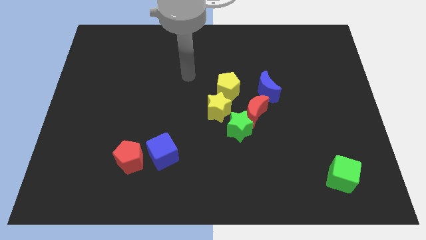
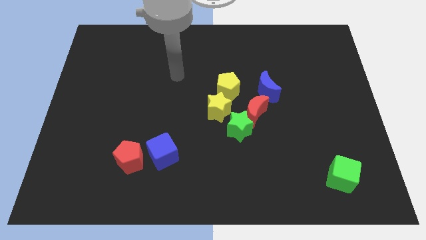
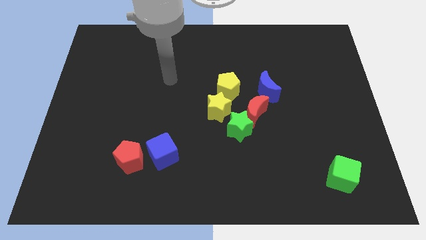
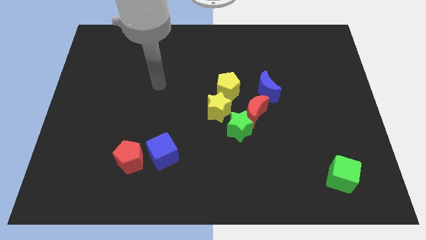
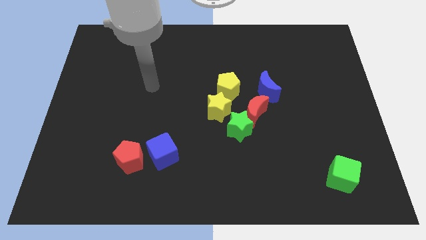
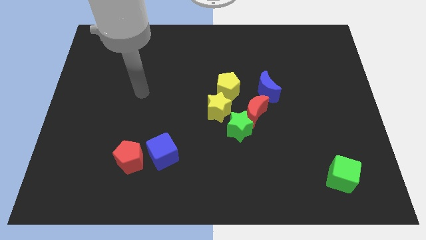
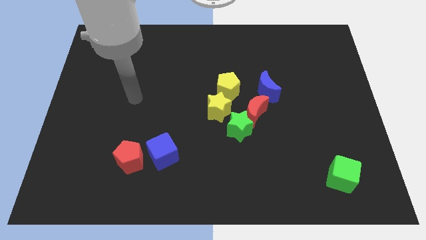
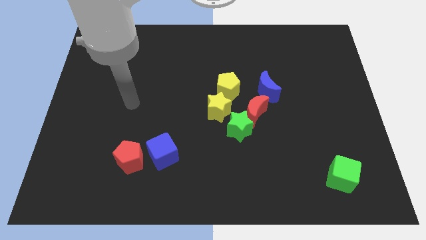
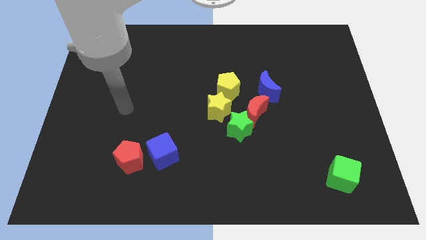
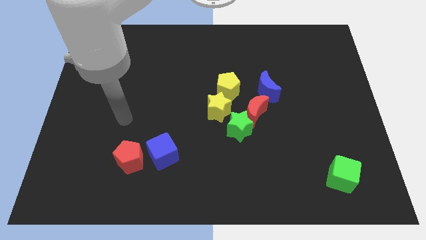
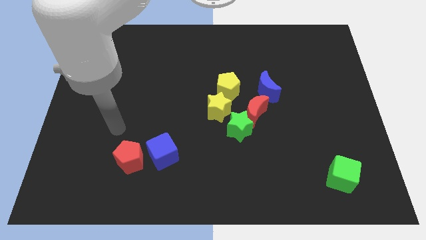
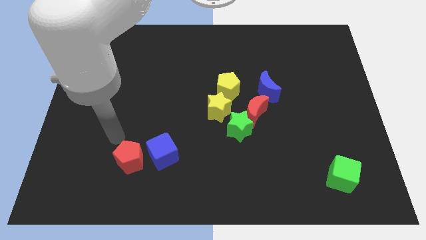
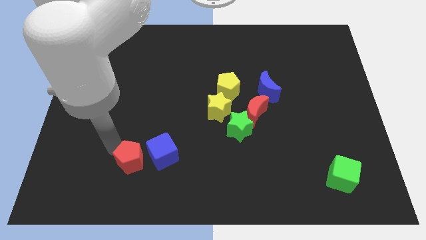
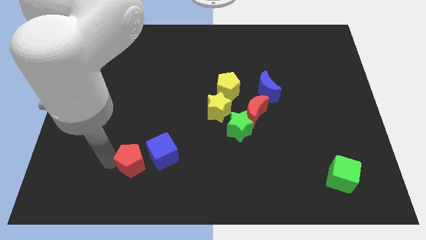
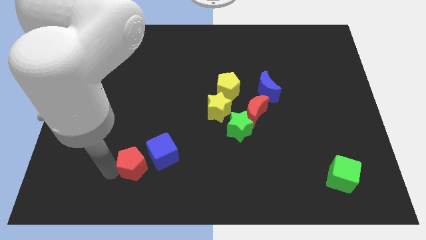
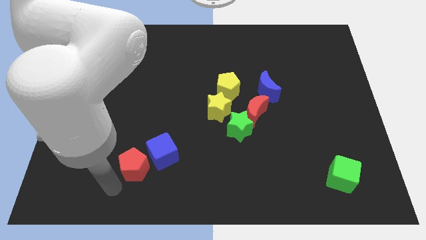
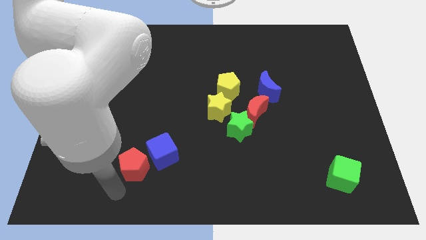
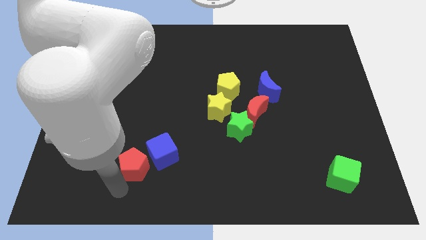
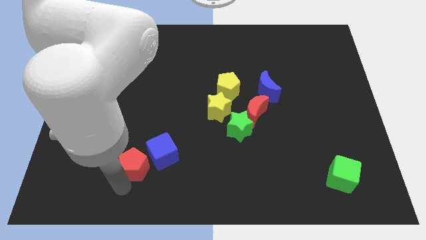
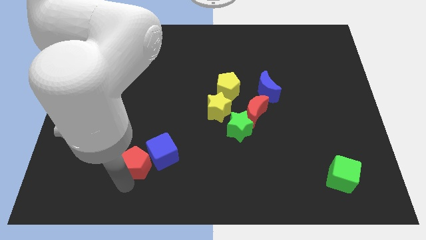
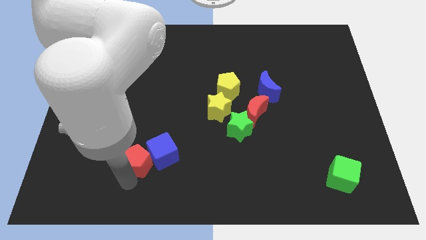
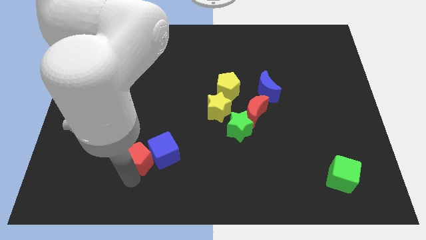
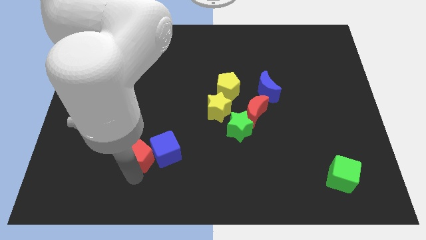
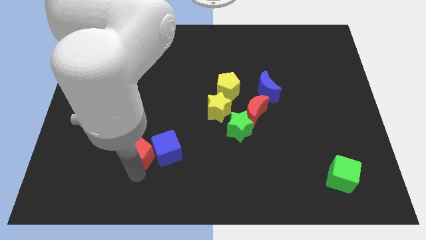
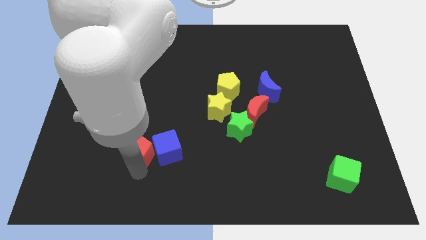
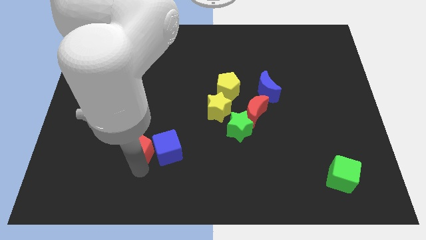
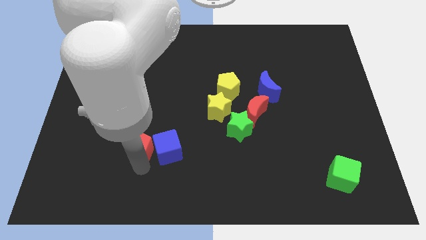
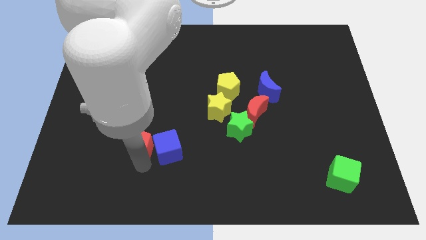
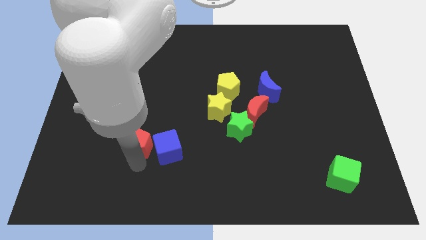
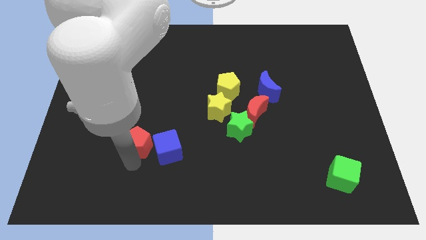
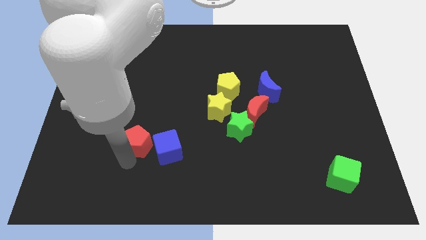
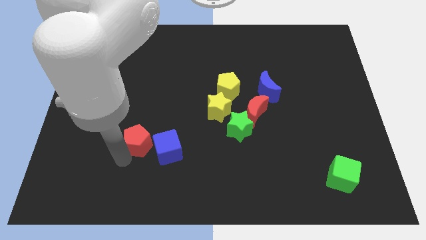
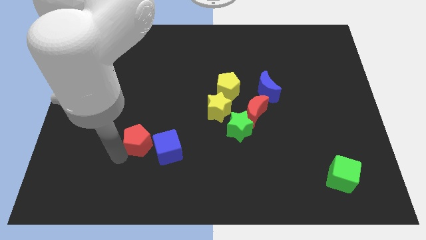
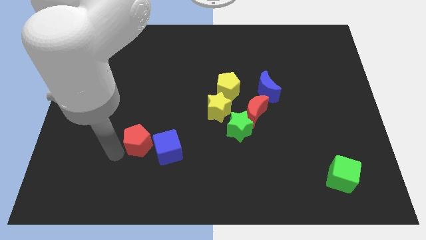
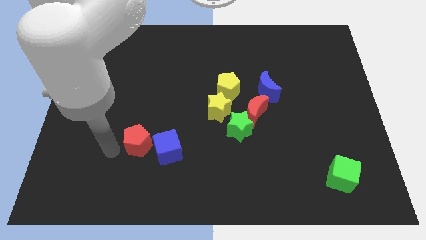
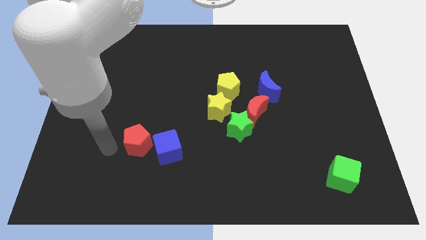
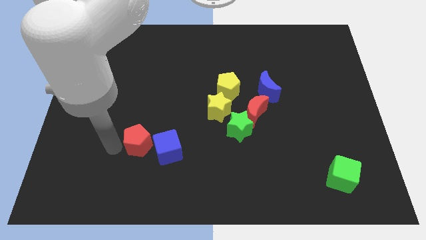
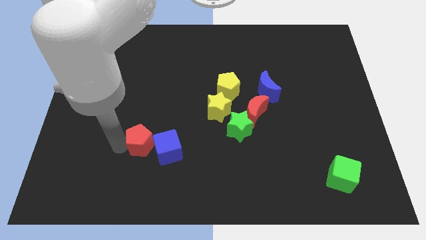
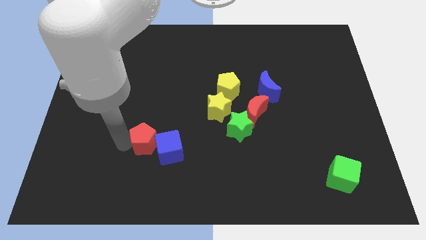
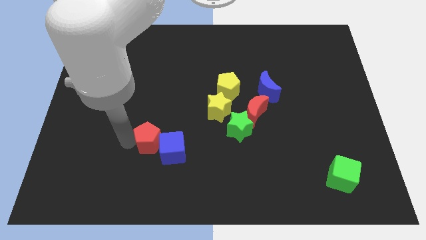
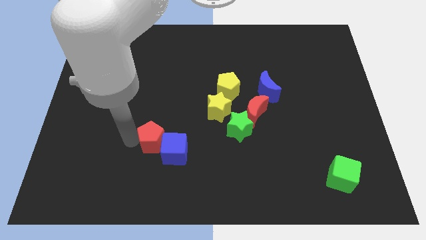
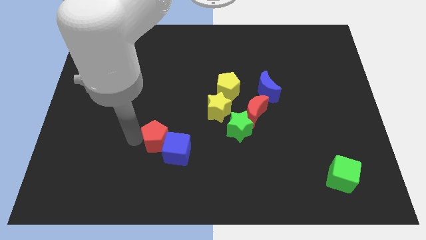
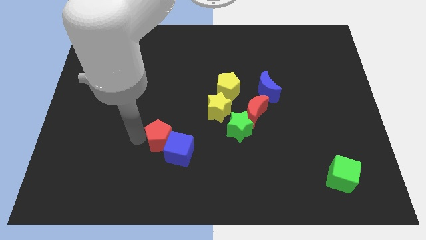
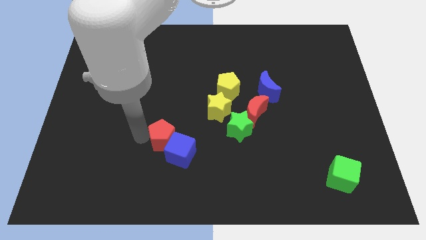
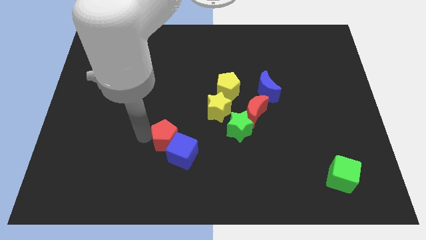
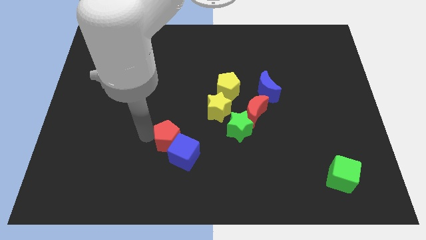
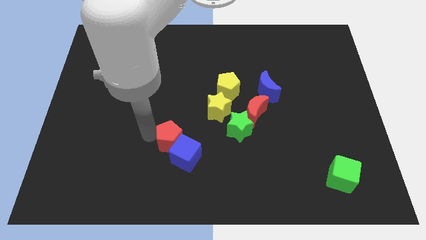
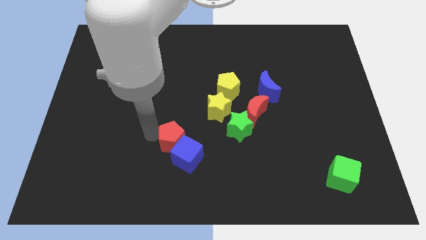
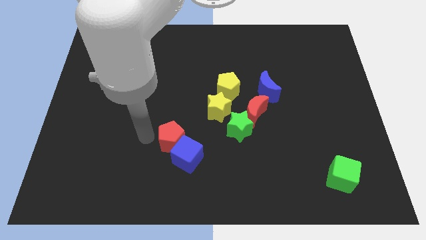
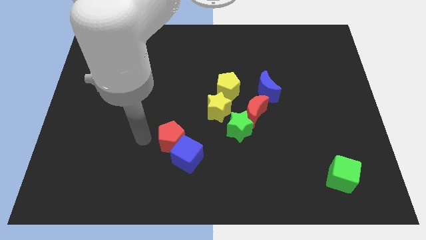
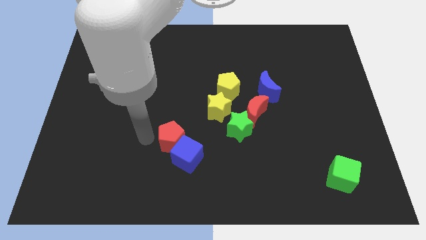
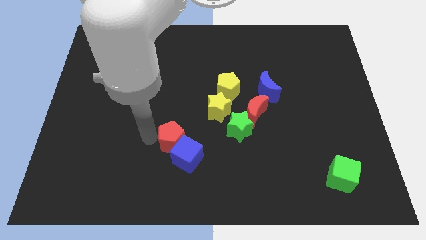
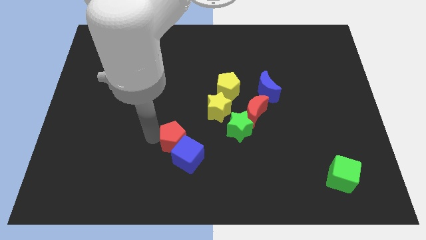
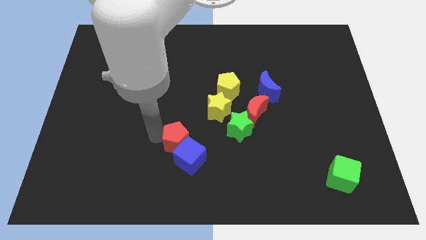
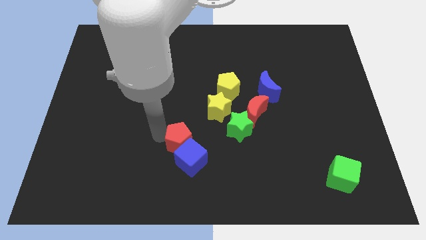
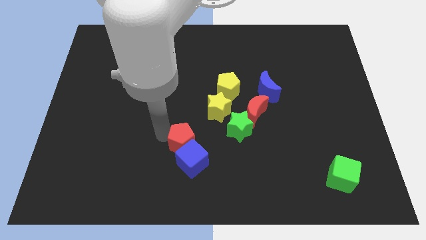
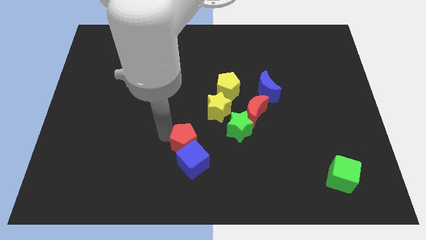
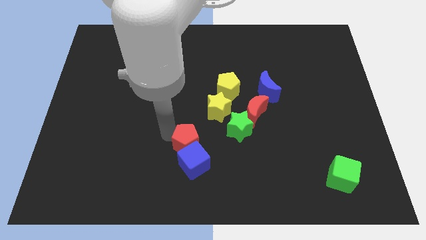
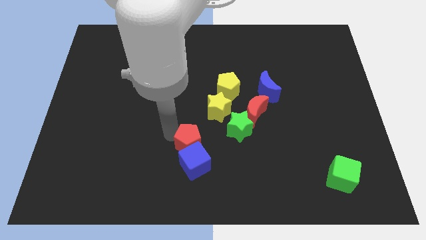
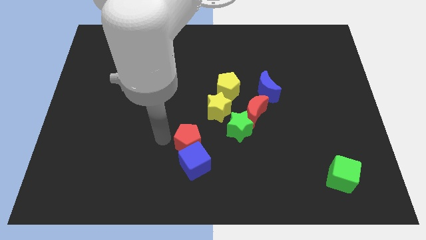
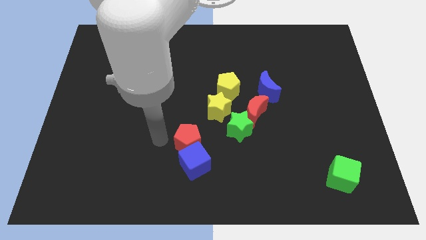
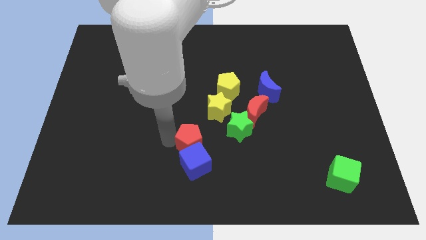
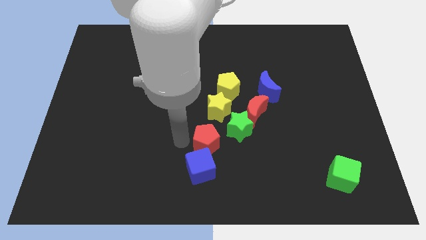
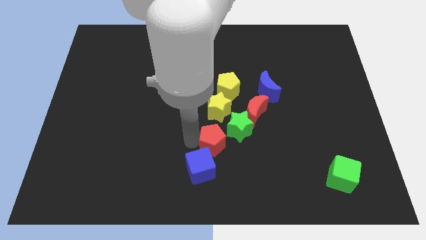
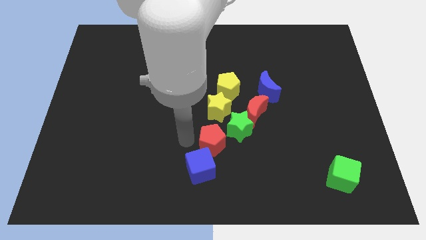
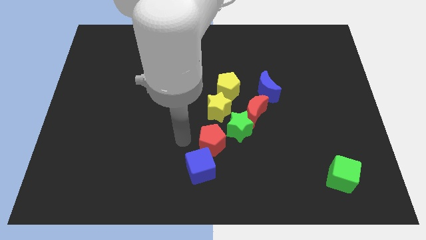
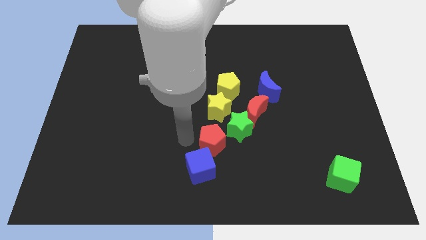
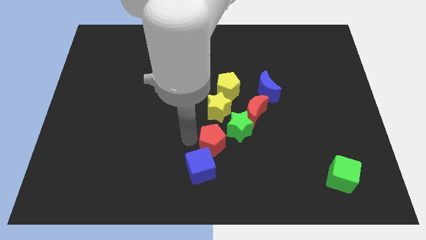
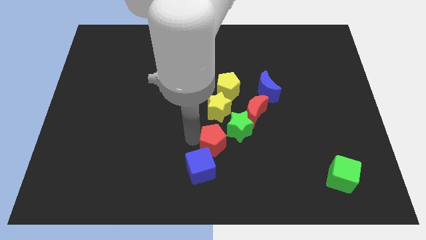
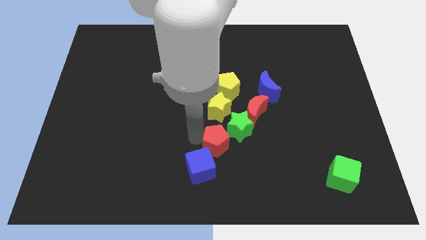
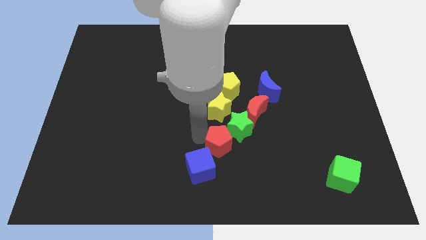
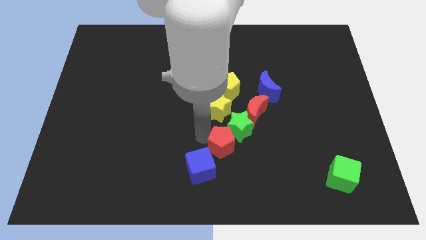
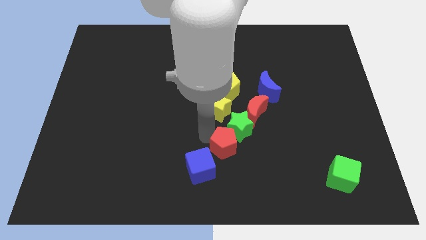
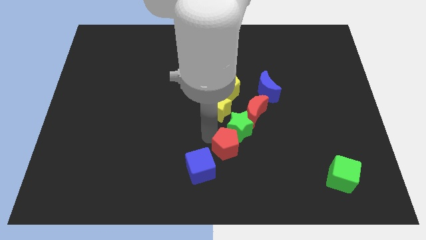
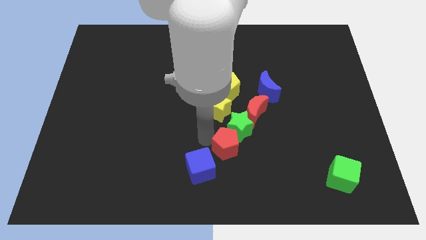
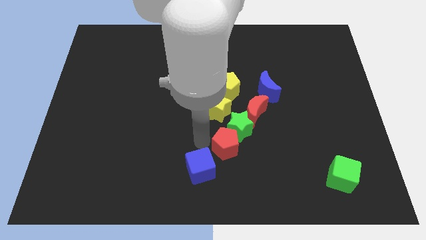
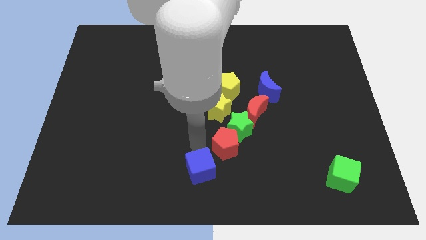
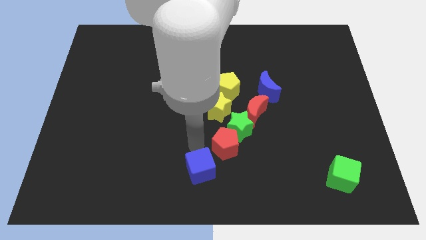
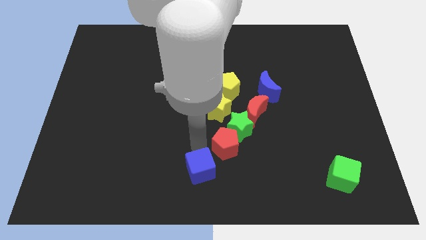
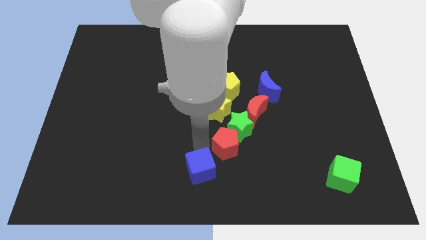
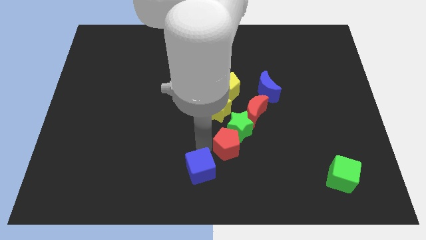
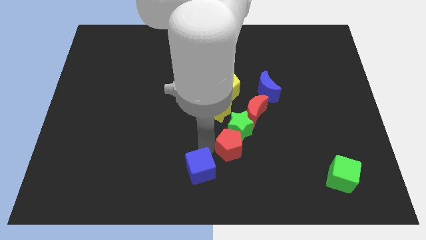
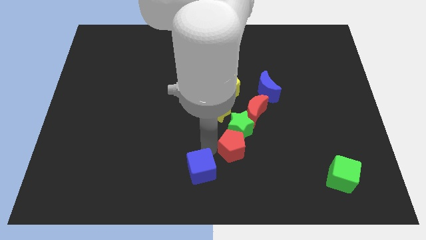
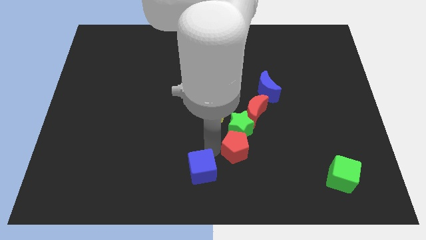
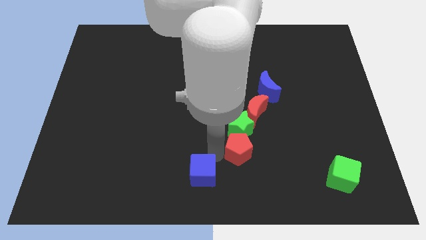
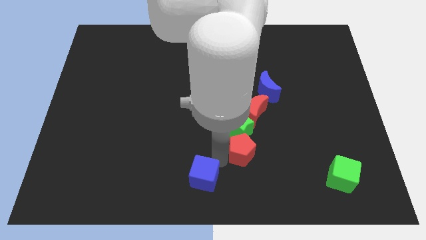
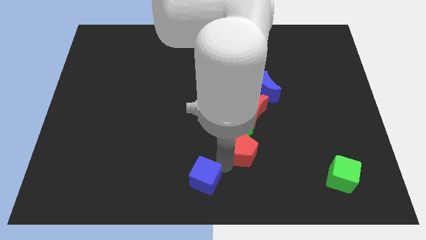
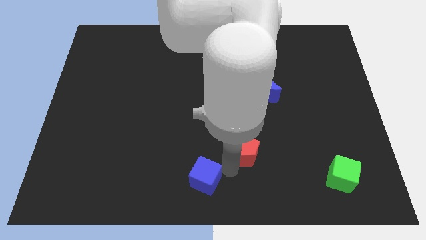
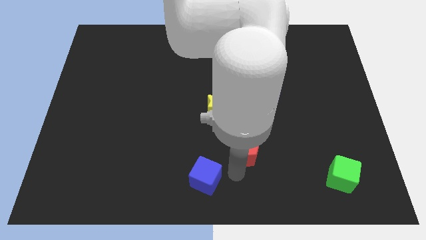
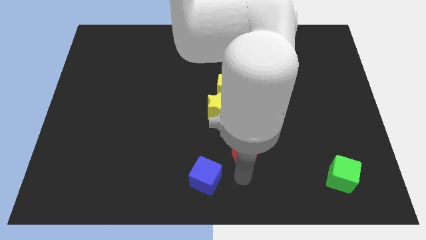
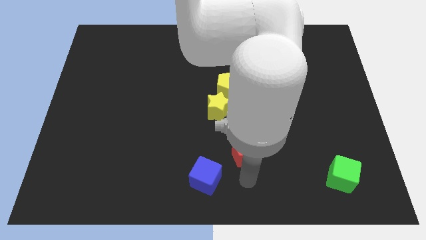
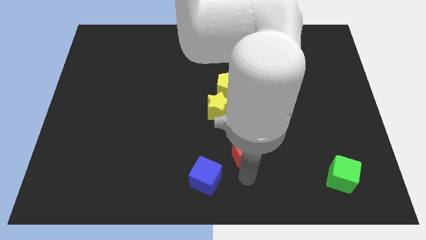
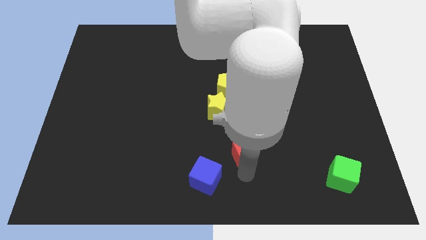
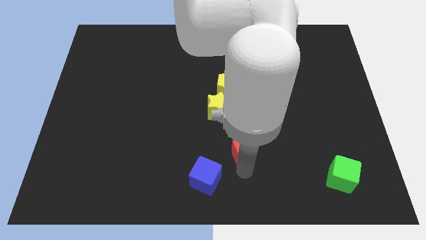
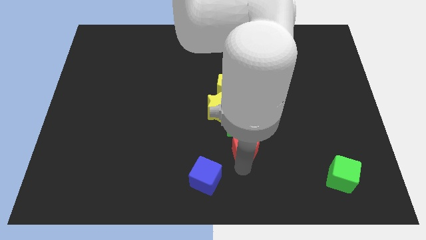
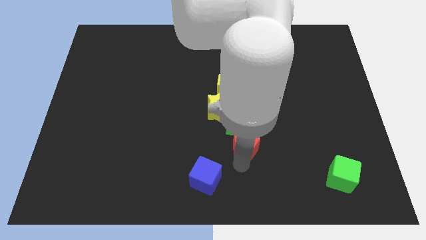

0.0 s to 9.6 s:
move the red pentagon diagonally down and to the right of the yellow star
